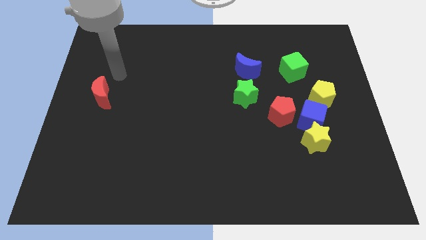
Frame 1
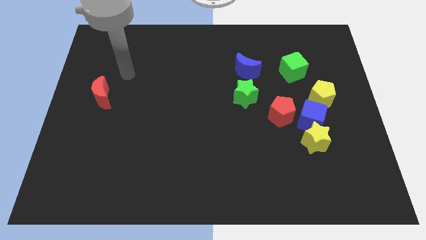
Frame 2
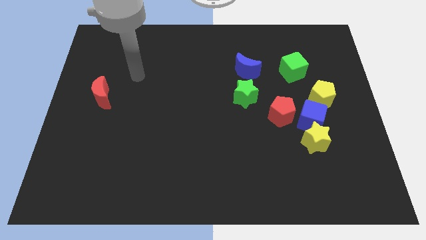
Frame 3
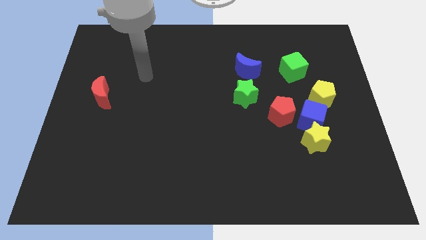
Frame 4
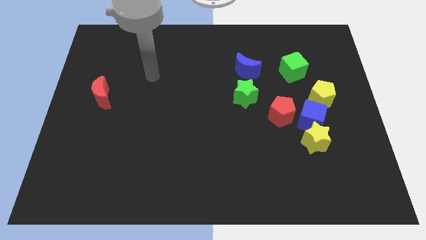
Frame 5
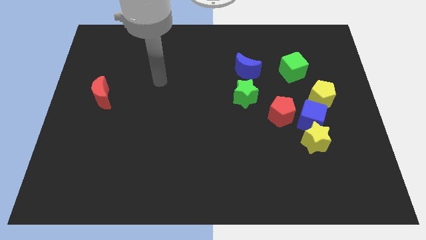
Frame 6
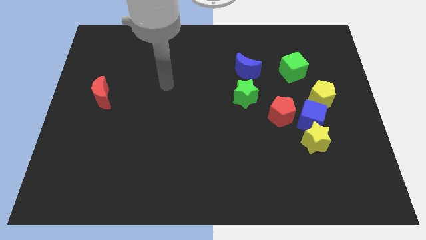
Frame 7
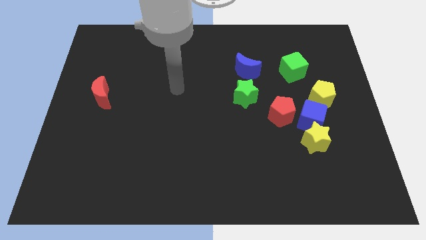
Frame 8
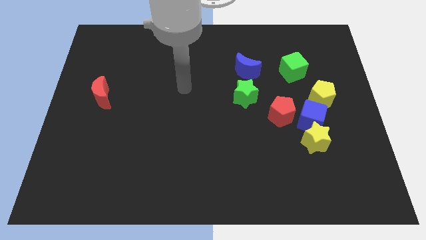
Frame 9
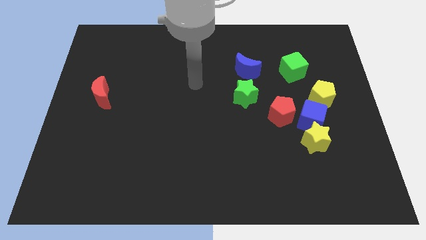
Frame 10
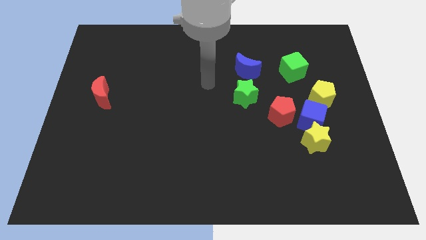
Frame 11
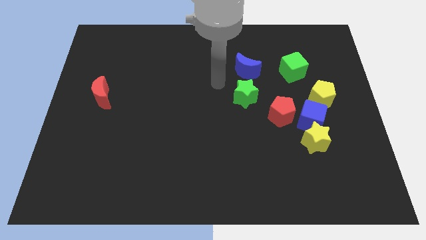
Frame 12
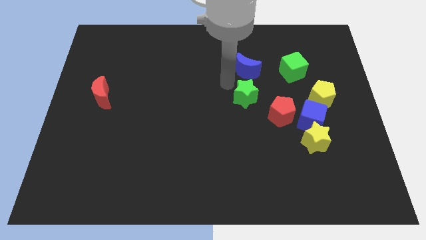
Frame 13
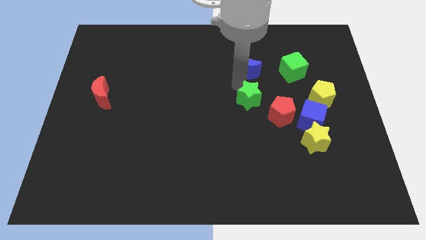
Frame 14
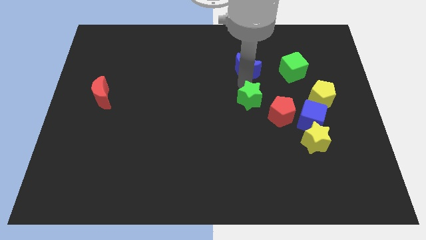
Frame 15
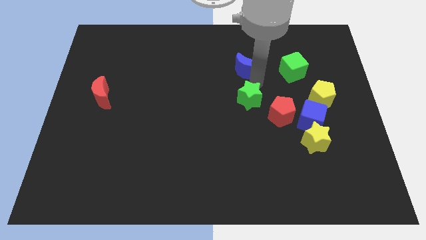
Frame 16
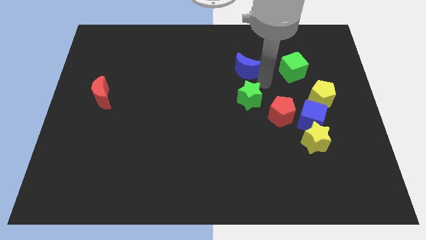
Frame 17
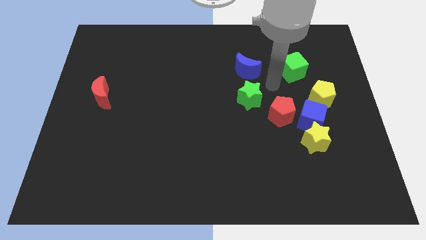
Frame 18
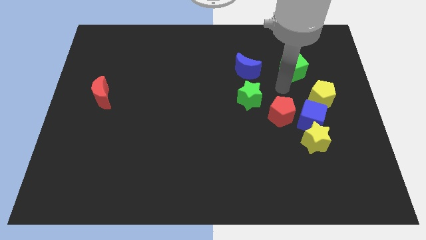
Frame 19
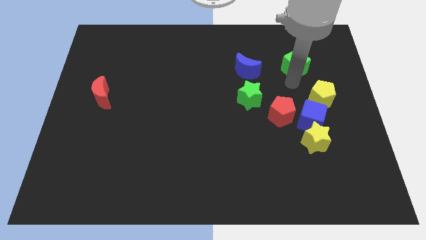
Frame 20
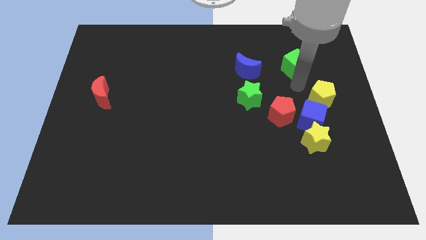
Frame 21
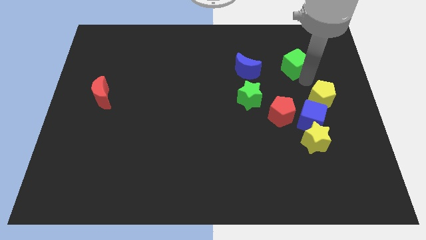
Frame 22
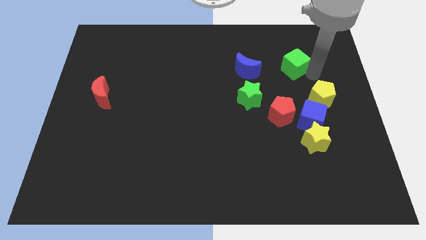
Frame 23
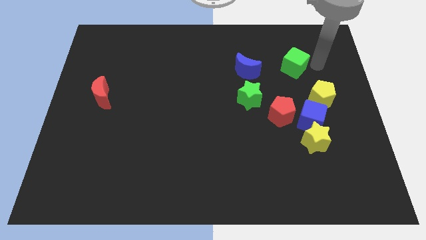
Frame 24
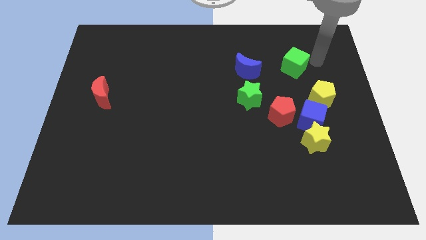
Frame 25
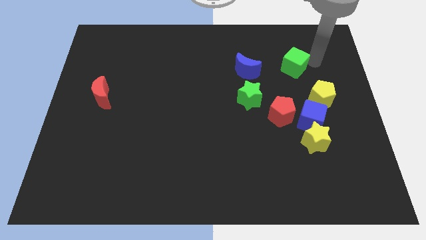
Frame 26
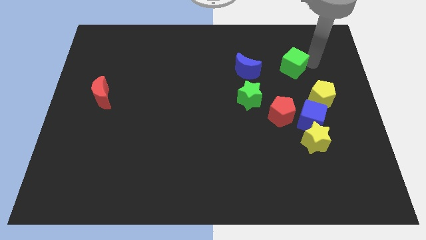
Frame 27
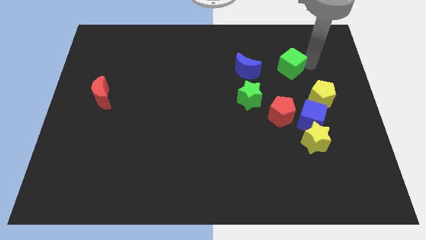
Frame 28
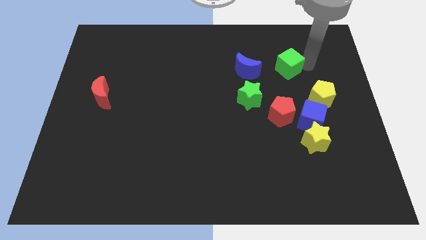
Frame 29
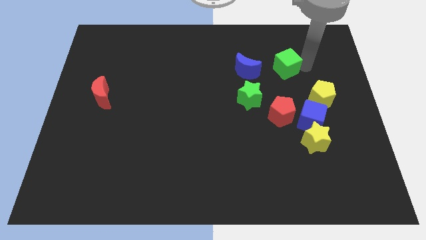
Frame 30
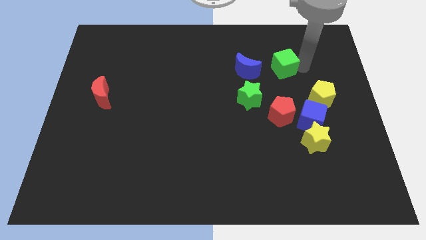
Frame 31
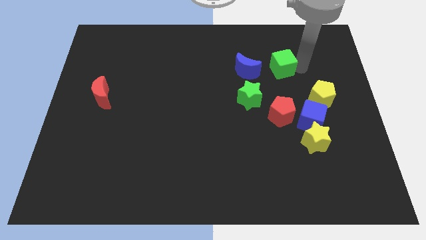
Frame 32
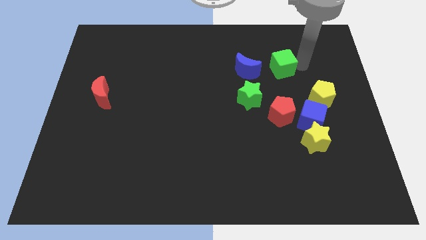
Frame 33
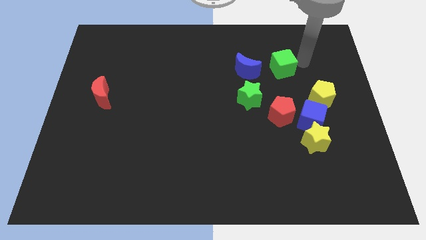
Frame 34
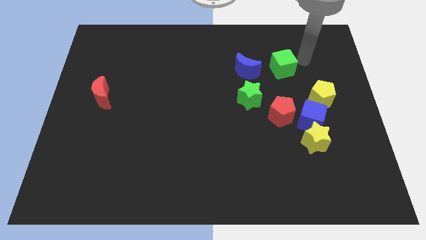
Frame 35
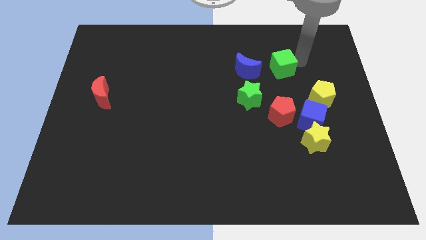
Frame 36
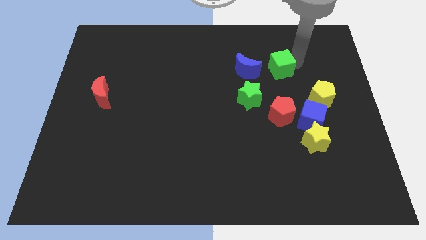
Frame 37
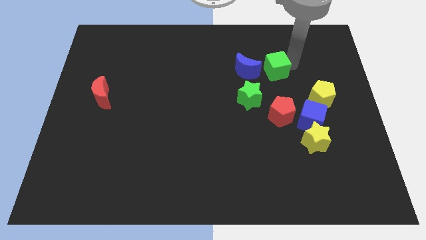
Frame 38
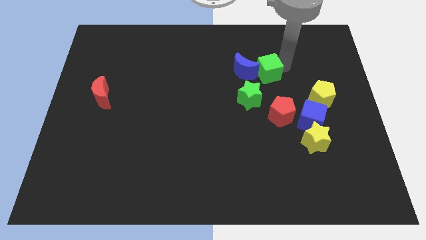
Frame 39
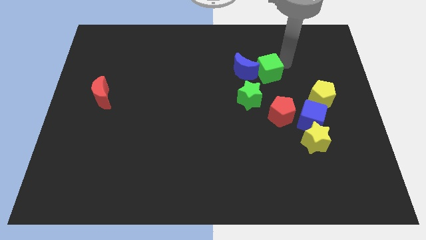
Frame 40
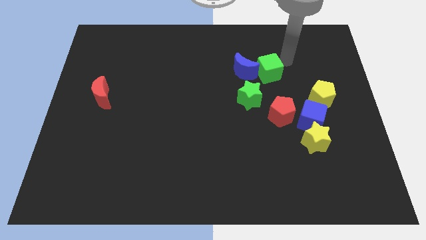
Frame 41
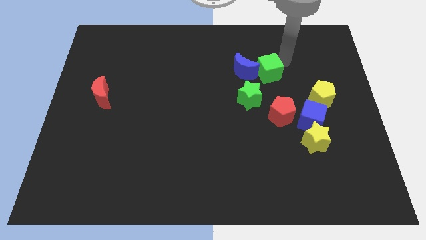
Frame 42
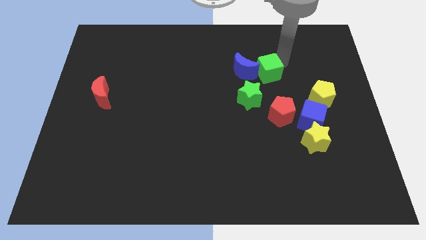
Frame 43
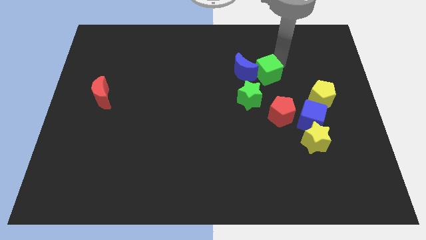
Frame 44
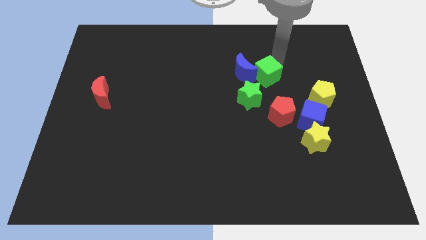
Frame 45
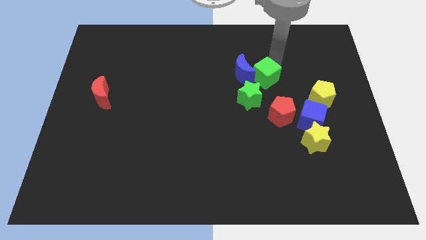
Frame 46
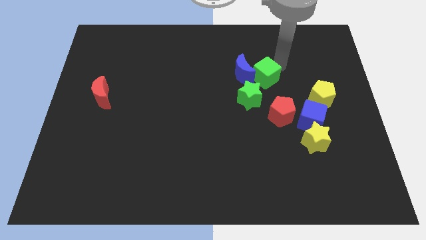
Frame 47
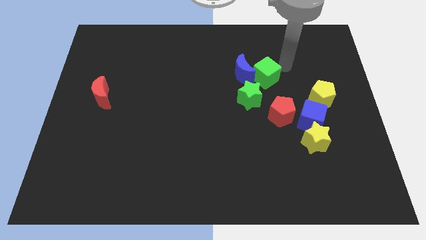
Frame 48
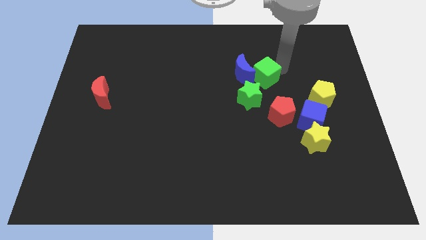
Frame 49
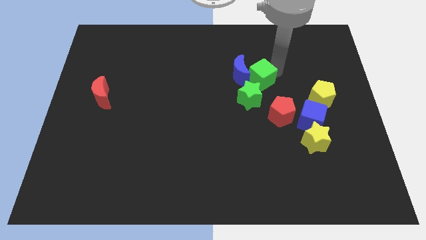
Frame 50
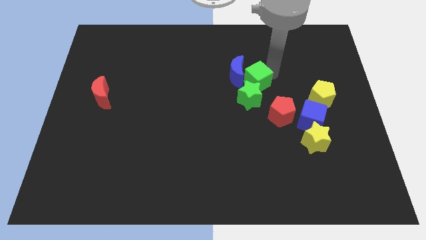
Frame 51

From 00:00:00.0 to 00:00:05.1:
push the green cube to the center

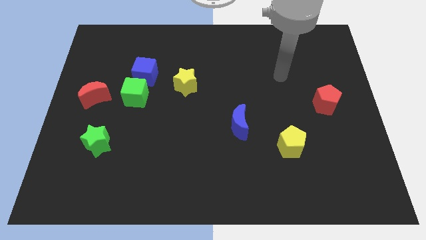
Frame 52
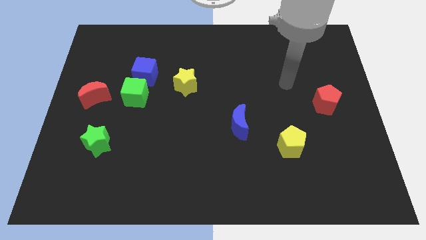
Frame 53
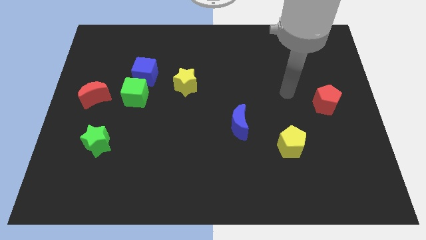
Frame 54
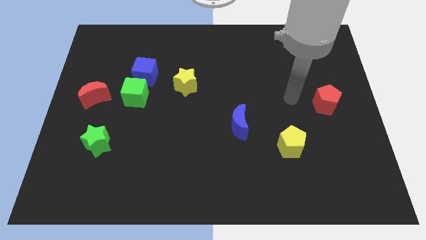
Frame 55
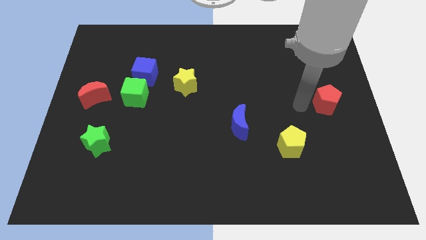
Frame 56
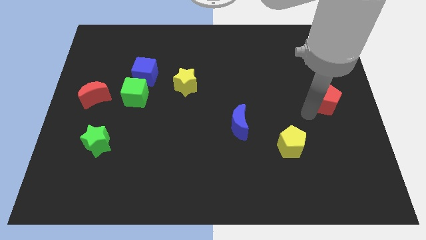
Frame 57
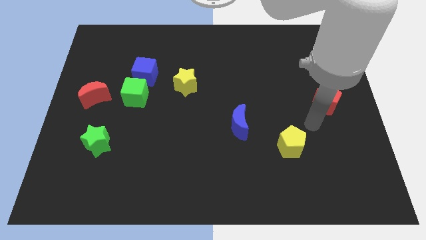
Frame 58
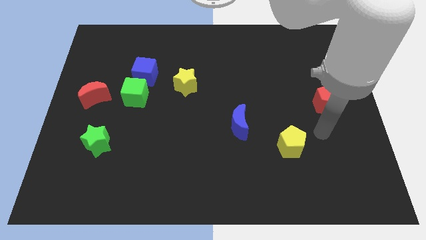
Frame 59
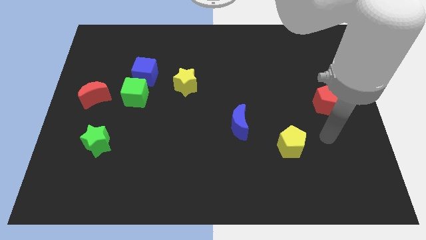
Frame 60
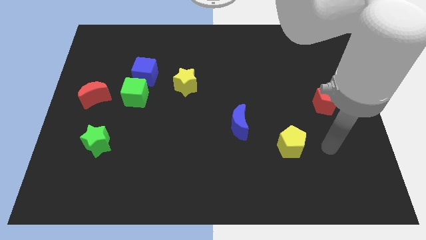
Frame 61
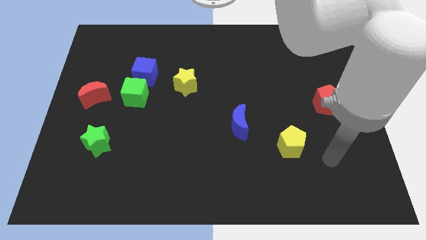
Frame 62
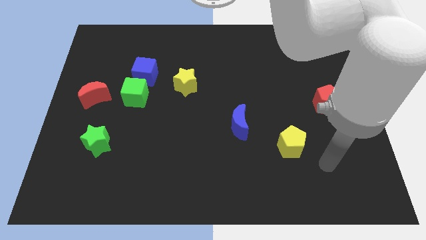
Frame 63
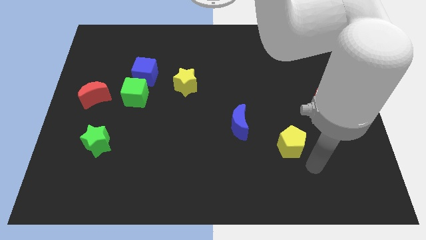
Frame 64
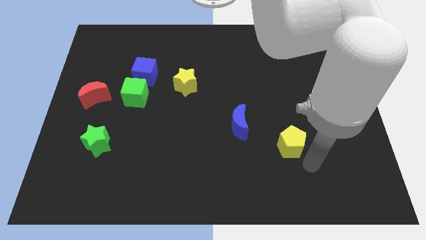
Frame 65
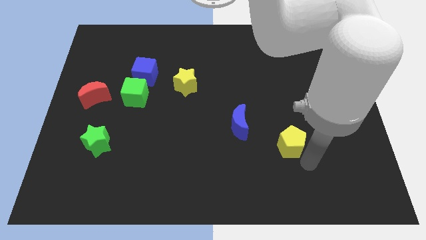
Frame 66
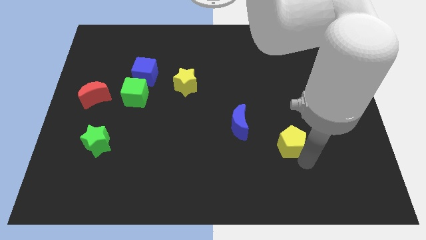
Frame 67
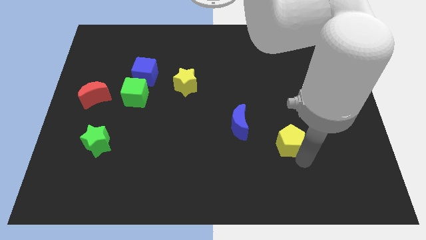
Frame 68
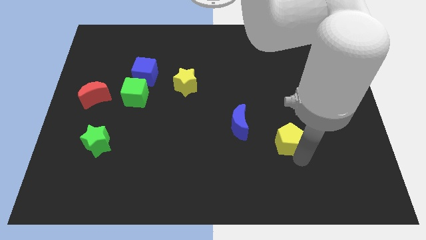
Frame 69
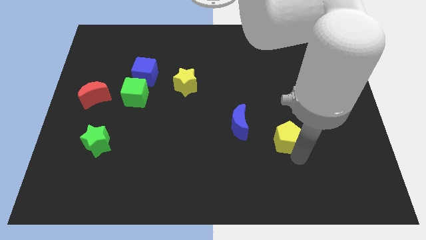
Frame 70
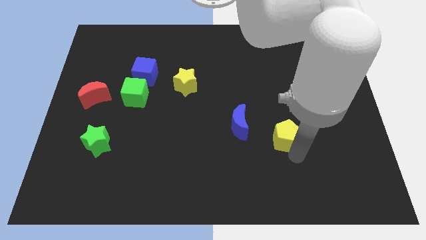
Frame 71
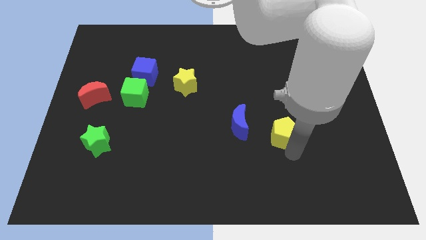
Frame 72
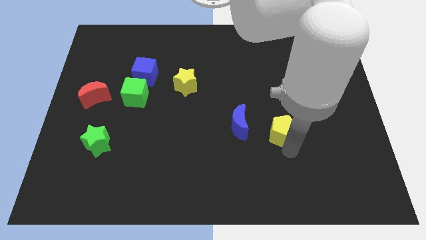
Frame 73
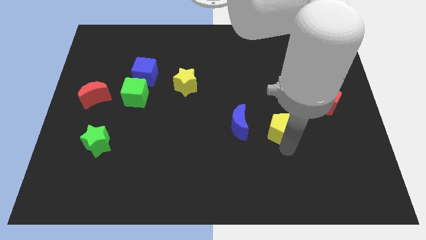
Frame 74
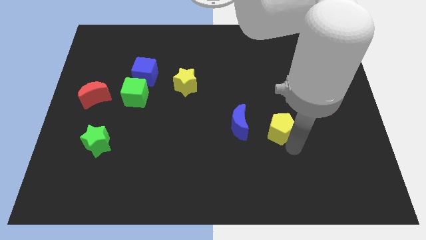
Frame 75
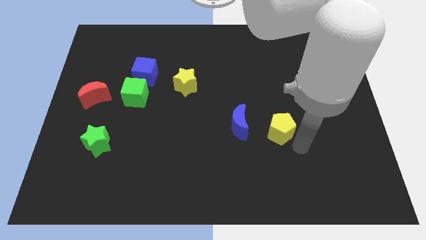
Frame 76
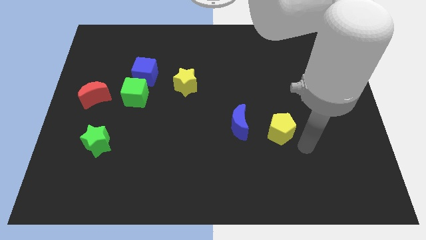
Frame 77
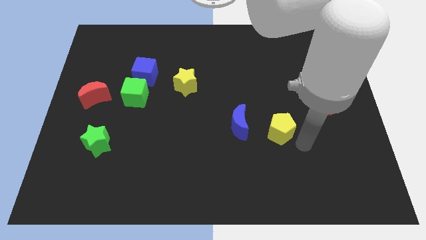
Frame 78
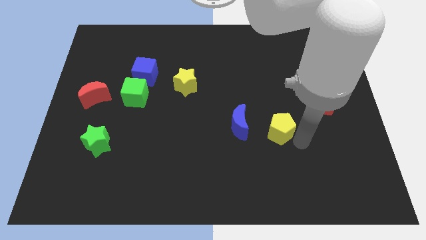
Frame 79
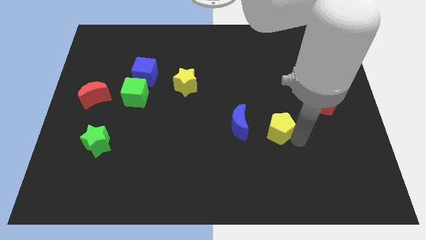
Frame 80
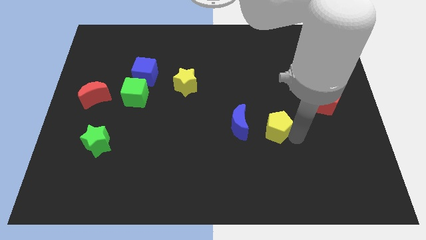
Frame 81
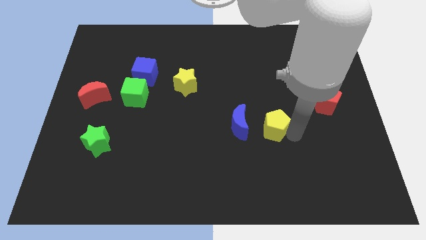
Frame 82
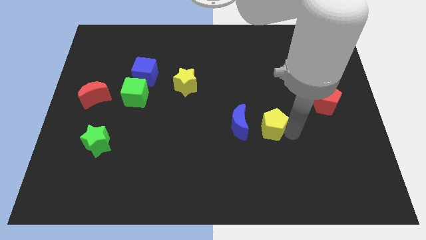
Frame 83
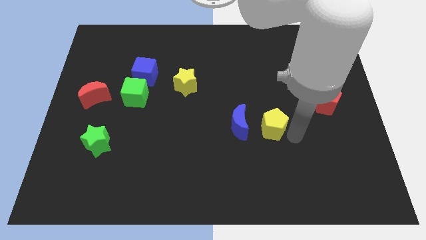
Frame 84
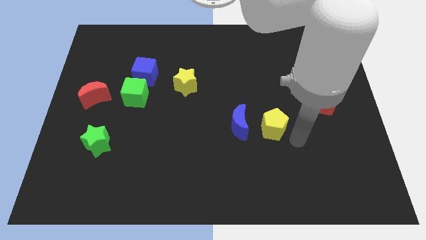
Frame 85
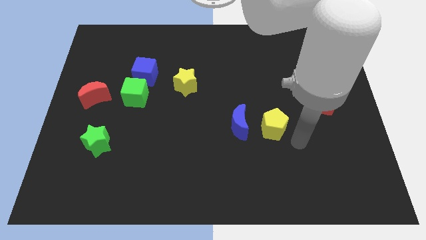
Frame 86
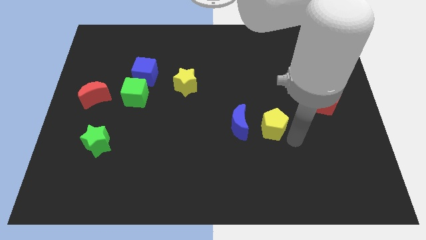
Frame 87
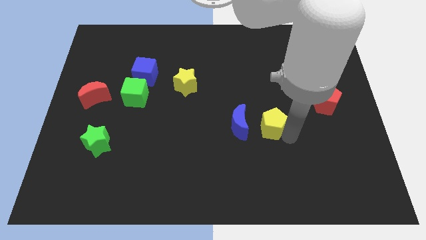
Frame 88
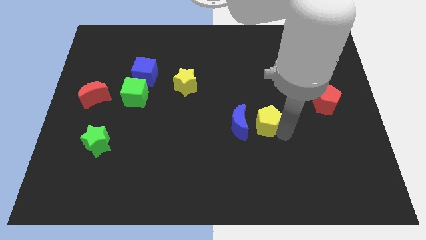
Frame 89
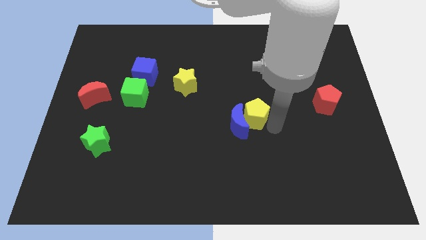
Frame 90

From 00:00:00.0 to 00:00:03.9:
slide the yellow pentagon to the center
